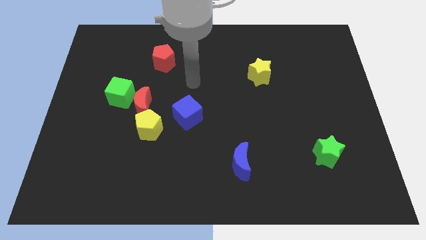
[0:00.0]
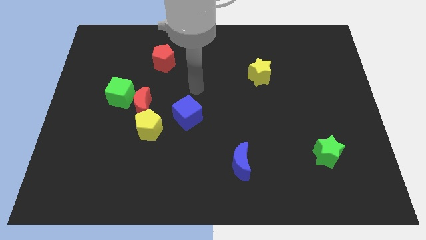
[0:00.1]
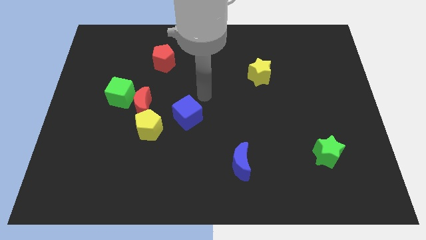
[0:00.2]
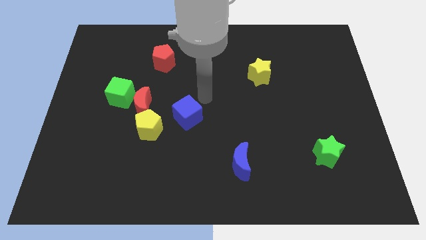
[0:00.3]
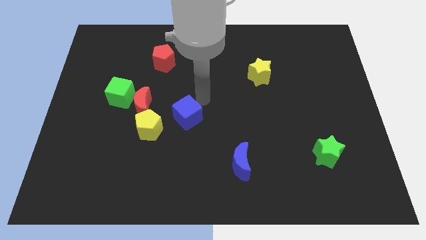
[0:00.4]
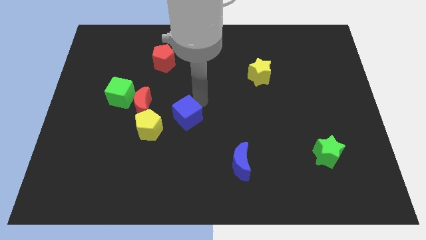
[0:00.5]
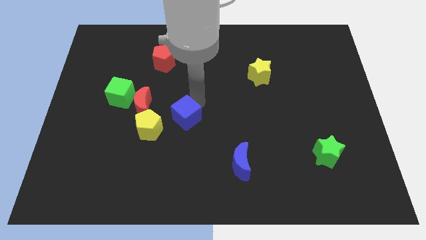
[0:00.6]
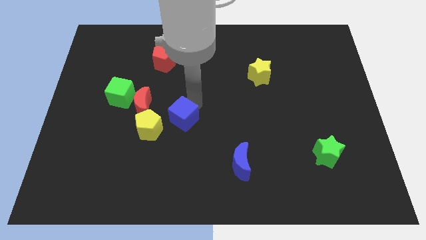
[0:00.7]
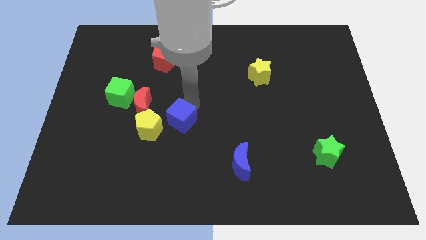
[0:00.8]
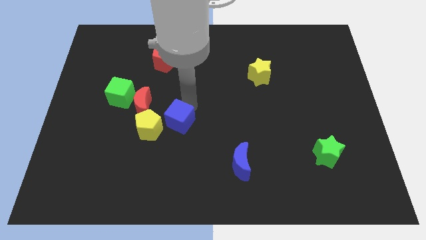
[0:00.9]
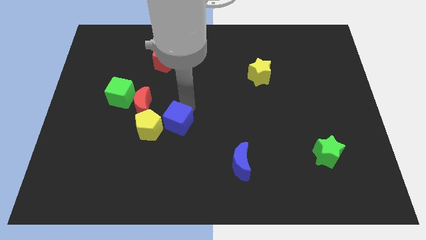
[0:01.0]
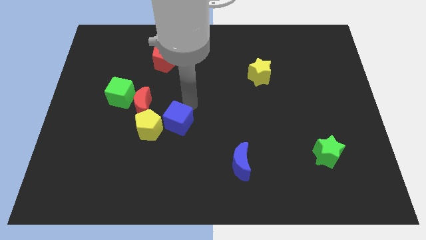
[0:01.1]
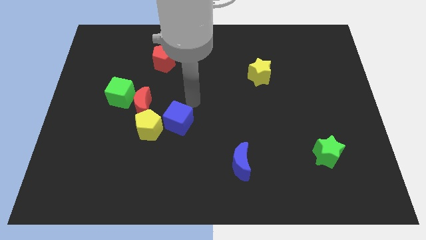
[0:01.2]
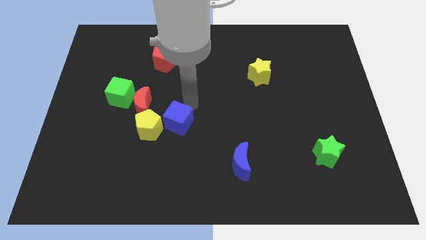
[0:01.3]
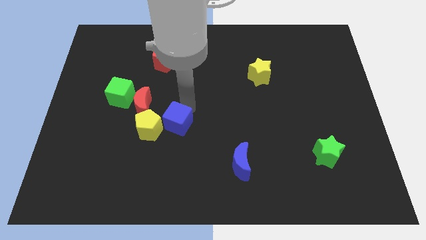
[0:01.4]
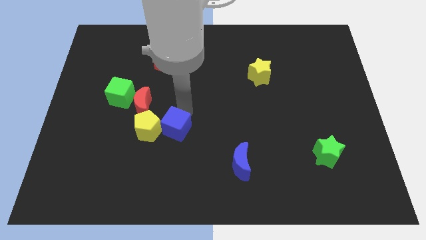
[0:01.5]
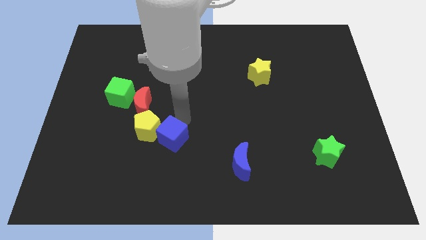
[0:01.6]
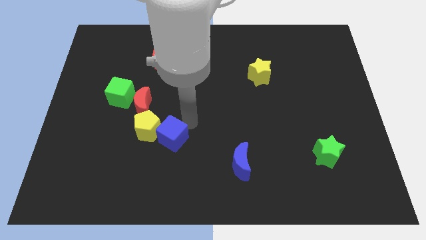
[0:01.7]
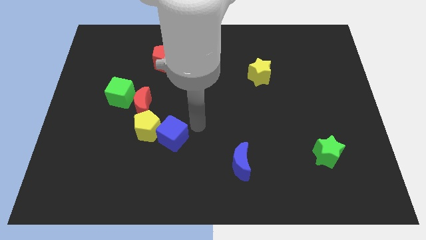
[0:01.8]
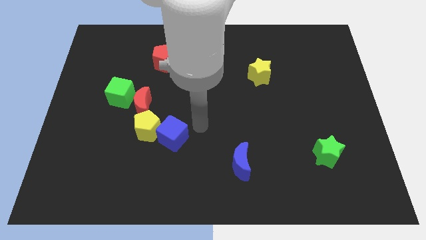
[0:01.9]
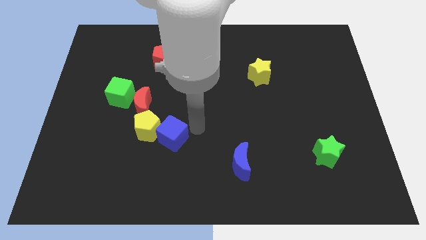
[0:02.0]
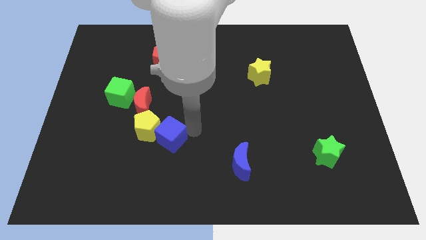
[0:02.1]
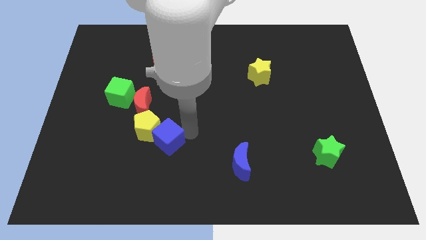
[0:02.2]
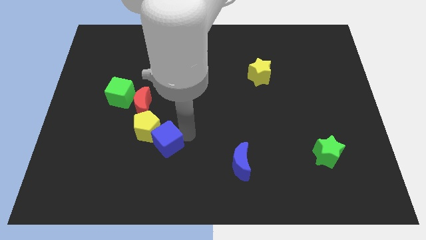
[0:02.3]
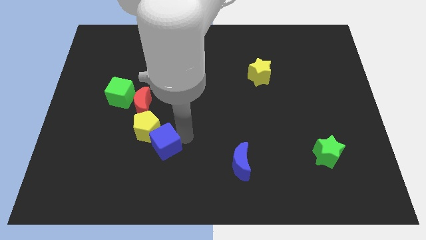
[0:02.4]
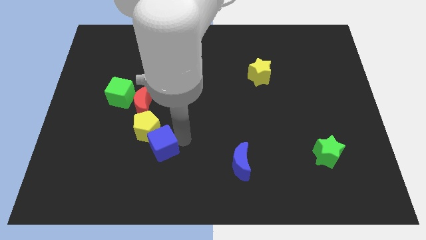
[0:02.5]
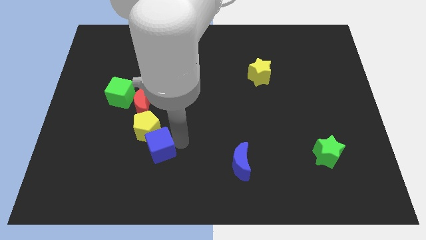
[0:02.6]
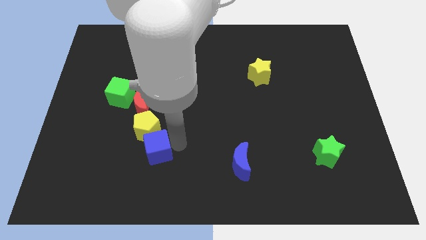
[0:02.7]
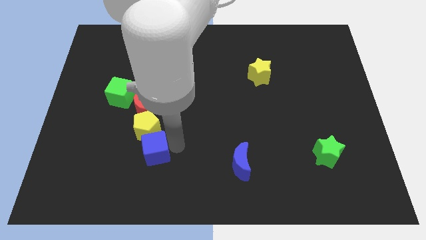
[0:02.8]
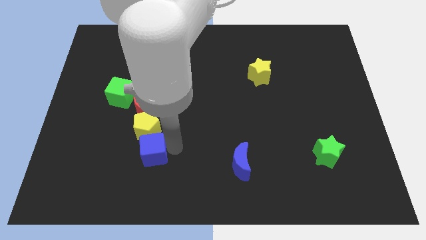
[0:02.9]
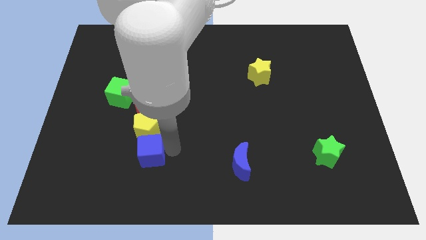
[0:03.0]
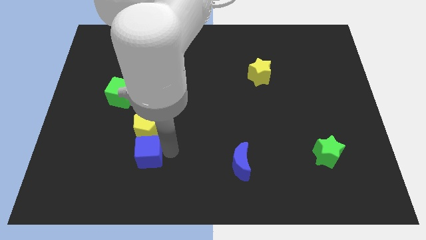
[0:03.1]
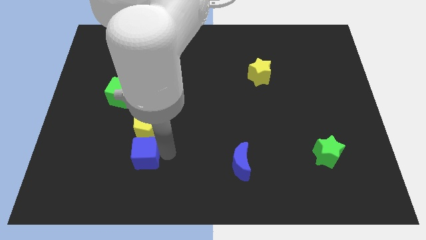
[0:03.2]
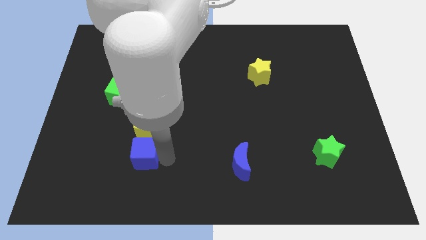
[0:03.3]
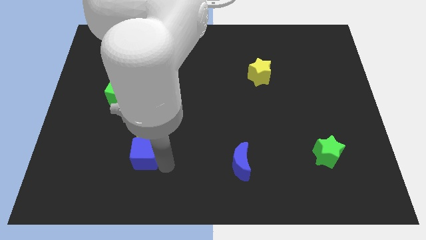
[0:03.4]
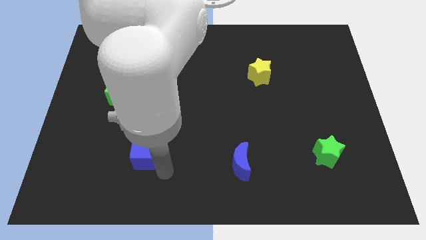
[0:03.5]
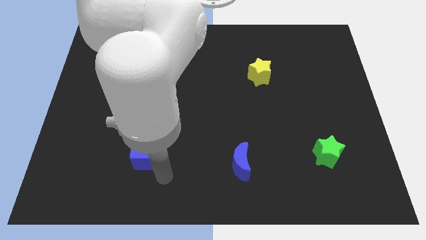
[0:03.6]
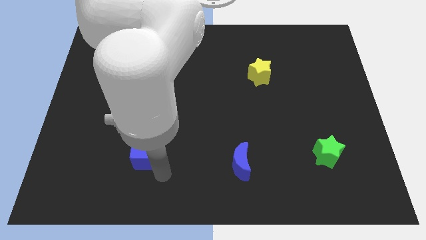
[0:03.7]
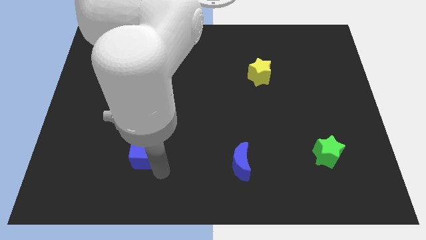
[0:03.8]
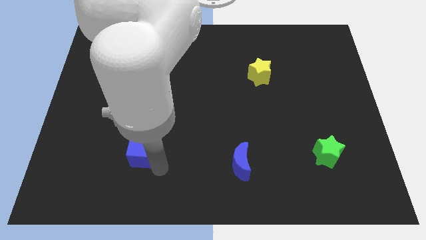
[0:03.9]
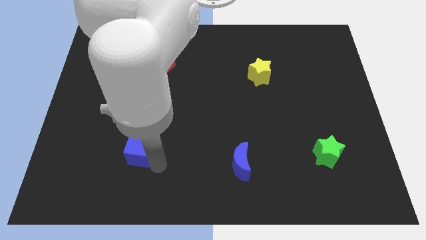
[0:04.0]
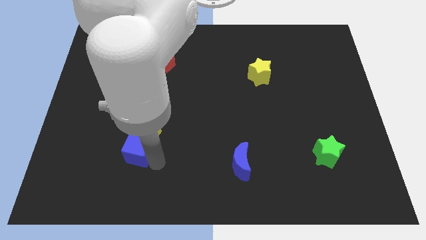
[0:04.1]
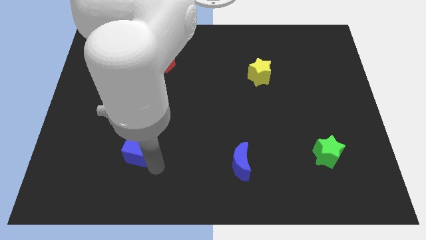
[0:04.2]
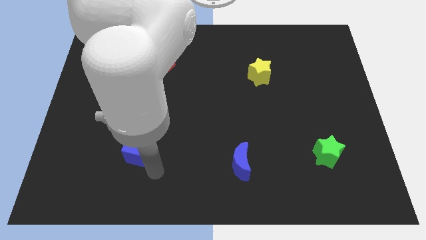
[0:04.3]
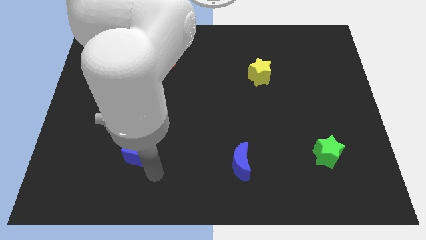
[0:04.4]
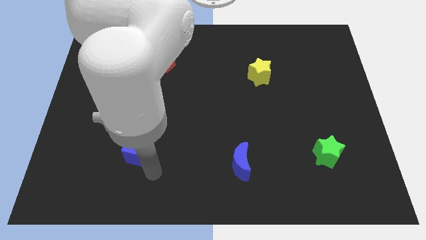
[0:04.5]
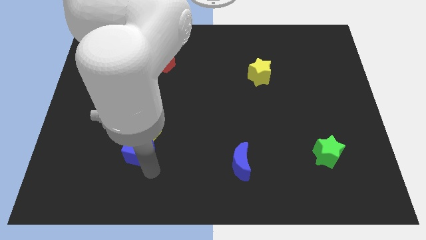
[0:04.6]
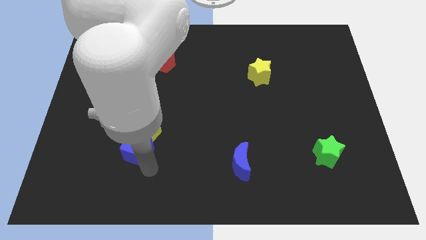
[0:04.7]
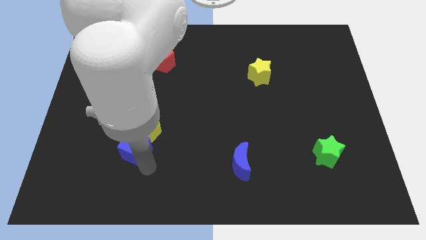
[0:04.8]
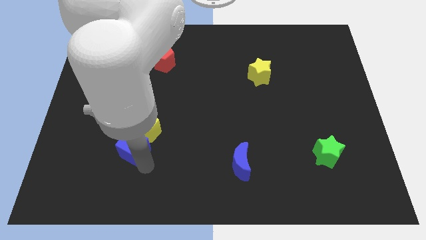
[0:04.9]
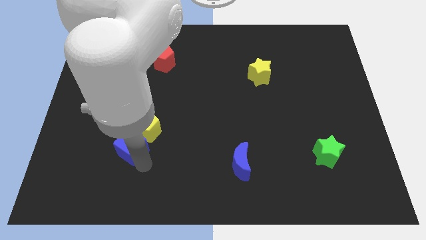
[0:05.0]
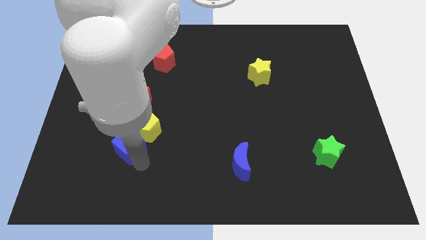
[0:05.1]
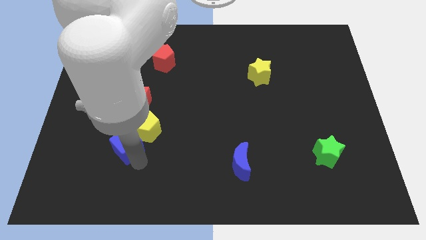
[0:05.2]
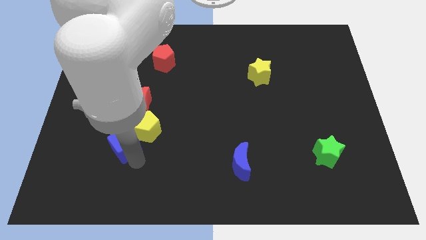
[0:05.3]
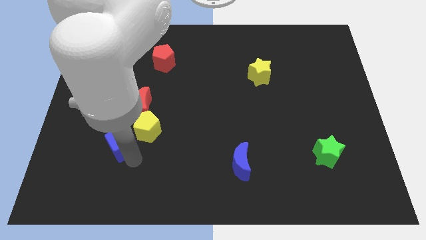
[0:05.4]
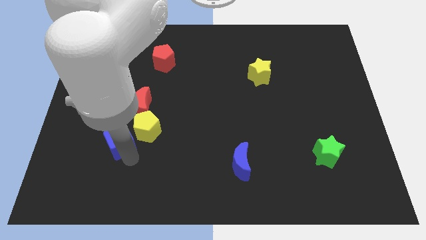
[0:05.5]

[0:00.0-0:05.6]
put the blue cube to the bottom left side of the red moon

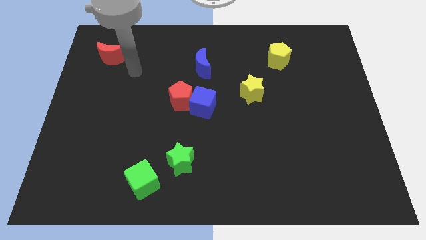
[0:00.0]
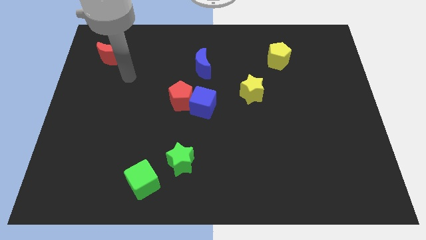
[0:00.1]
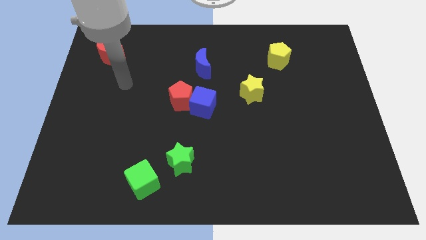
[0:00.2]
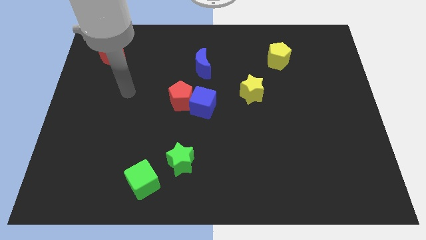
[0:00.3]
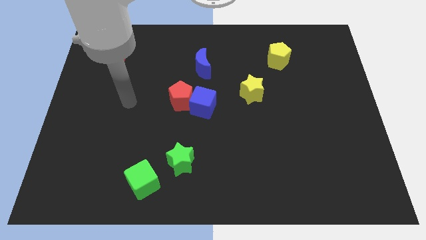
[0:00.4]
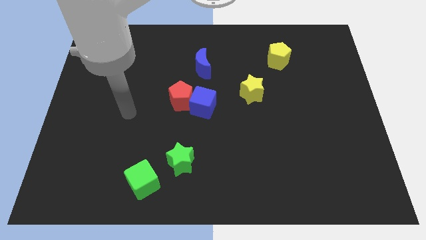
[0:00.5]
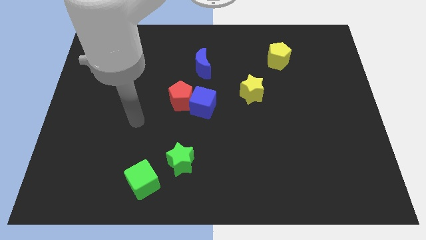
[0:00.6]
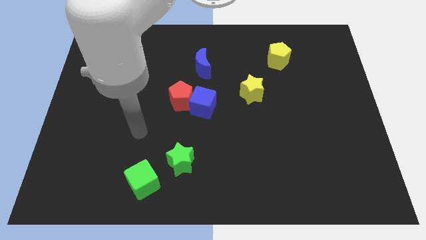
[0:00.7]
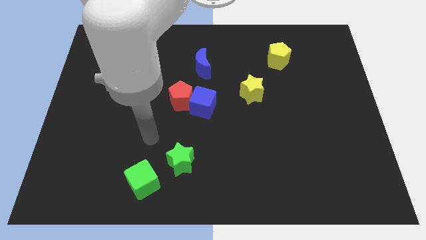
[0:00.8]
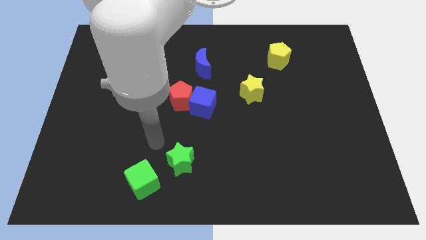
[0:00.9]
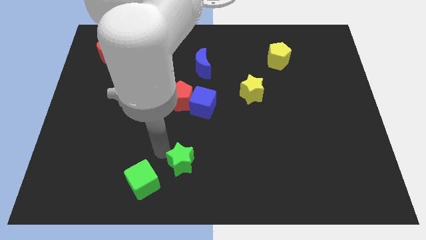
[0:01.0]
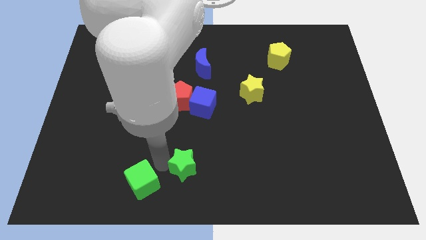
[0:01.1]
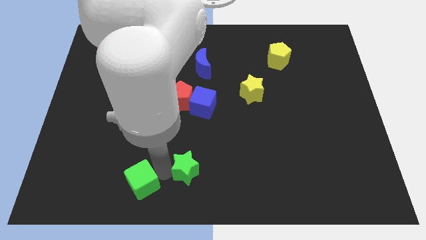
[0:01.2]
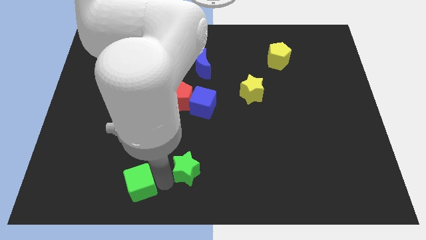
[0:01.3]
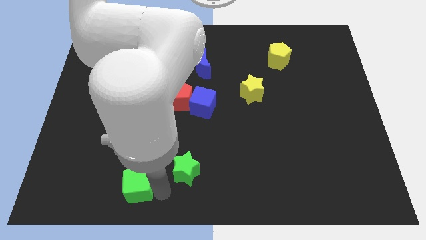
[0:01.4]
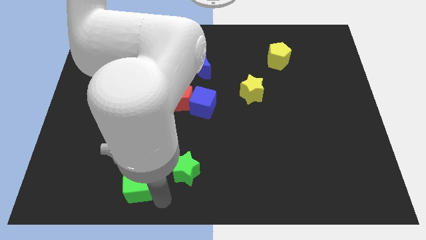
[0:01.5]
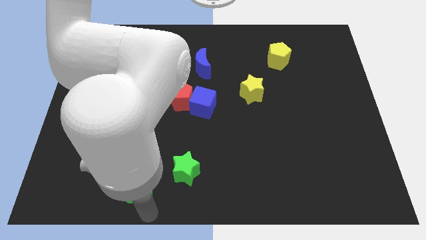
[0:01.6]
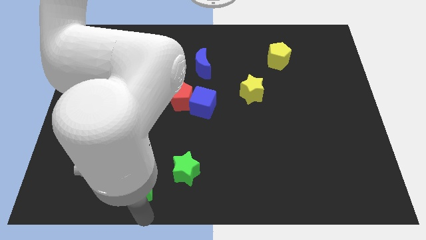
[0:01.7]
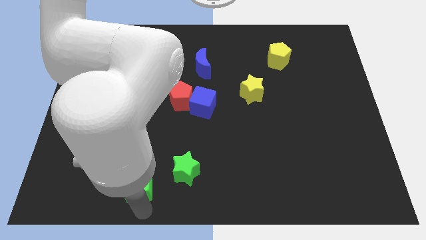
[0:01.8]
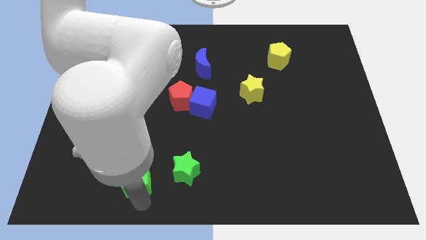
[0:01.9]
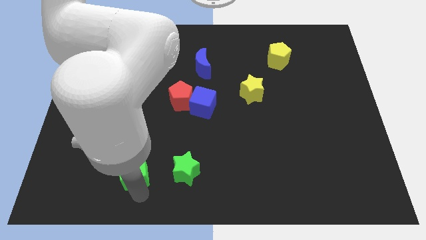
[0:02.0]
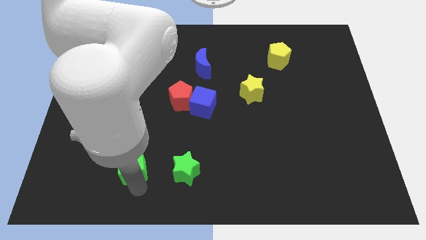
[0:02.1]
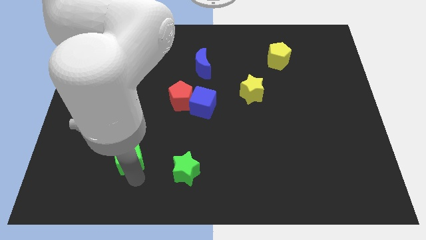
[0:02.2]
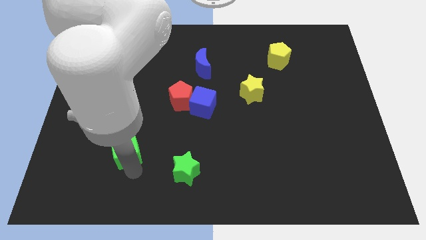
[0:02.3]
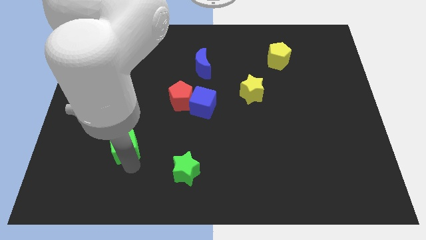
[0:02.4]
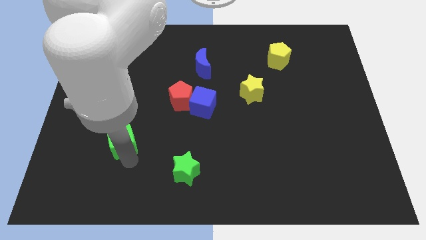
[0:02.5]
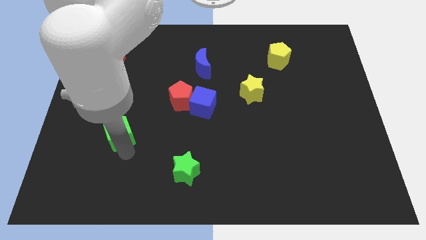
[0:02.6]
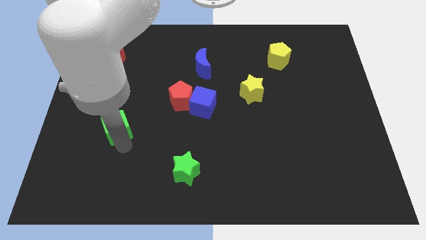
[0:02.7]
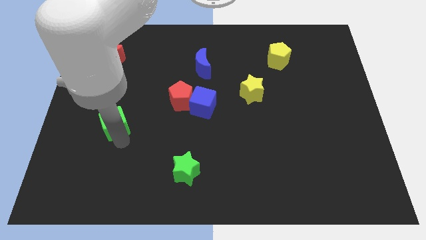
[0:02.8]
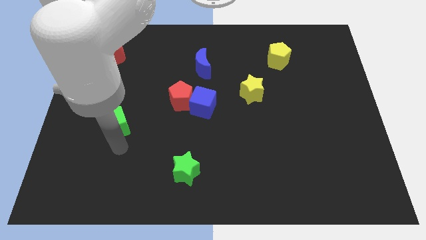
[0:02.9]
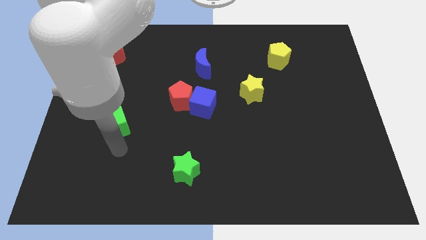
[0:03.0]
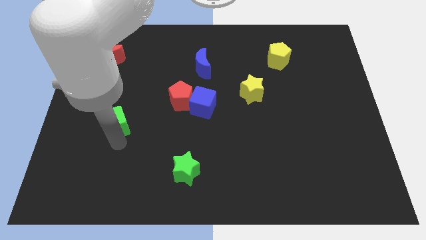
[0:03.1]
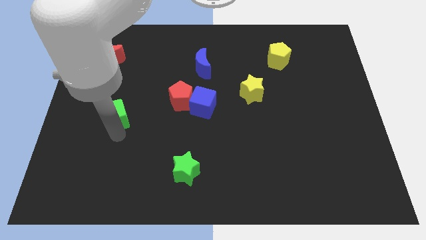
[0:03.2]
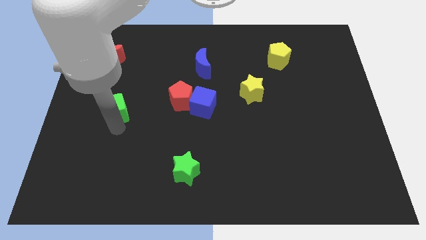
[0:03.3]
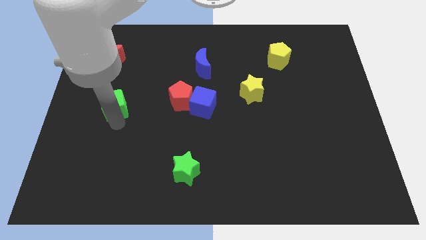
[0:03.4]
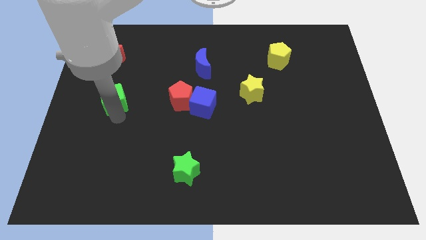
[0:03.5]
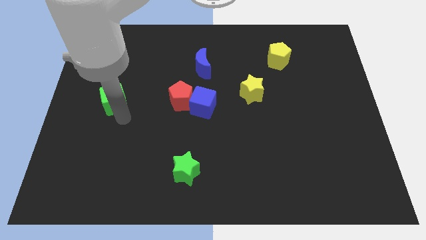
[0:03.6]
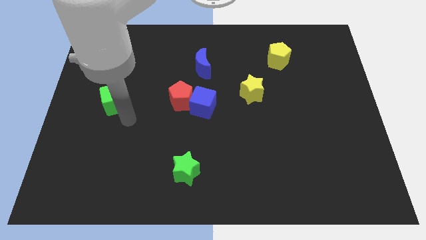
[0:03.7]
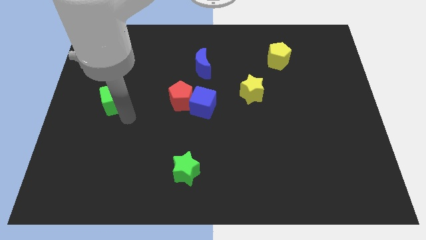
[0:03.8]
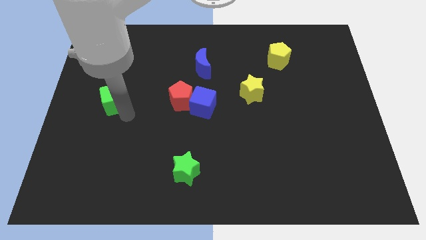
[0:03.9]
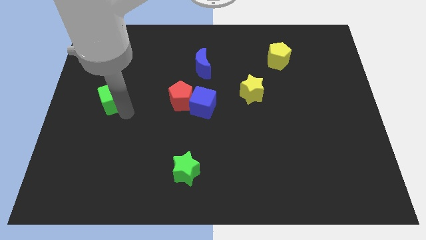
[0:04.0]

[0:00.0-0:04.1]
put the green cube to the bottom side of the red moon
